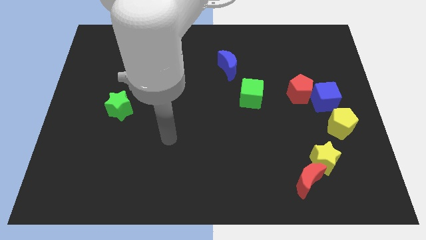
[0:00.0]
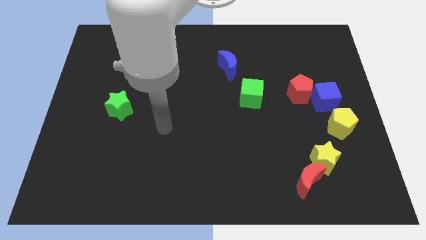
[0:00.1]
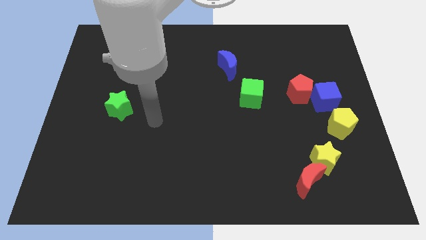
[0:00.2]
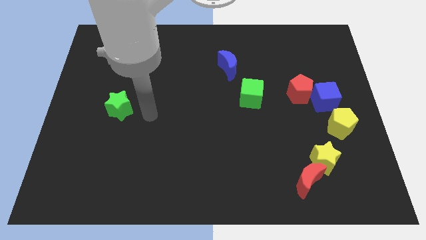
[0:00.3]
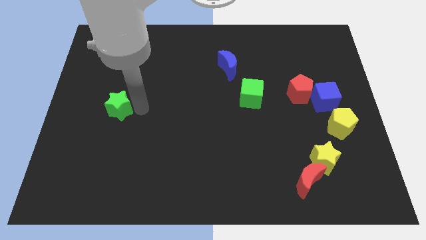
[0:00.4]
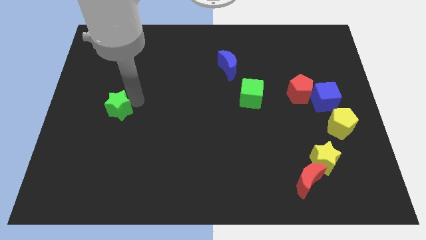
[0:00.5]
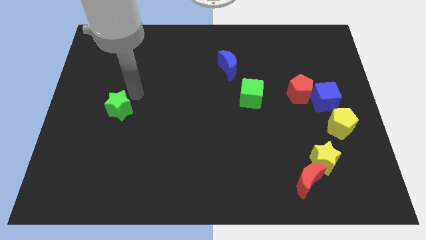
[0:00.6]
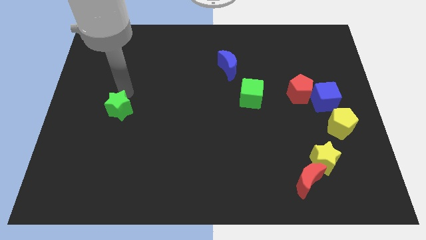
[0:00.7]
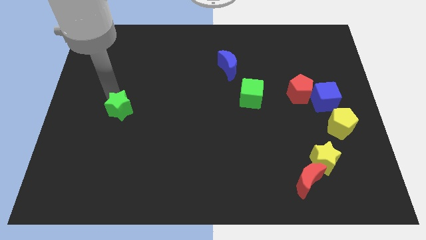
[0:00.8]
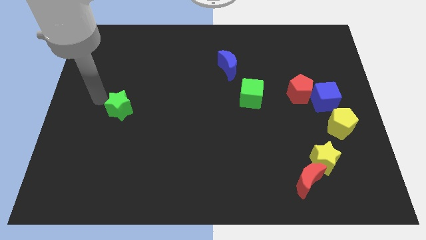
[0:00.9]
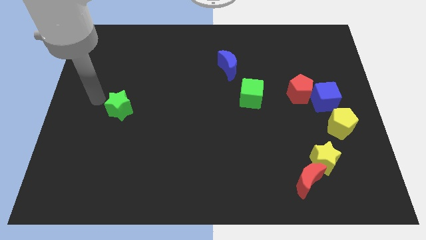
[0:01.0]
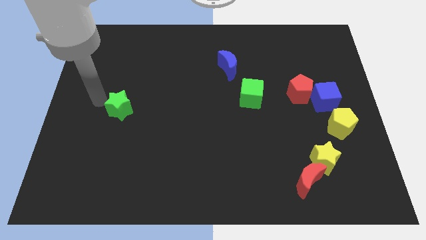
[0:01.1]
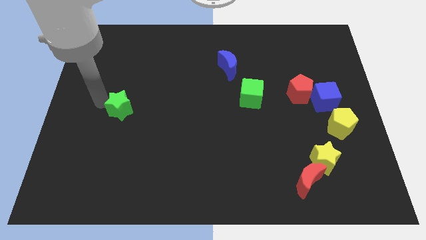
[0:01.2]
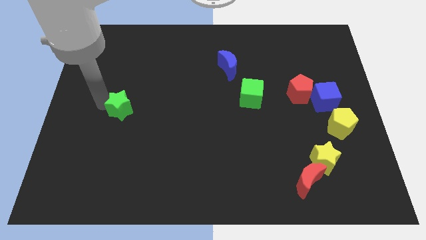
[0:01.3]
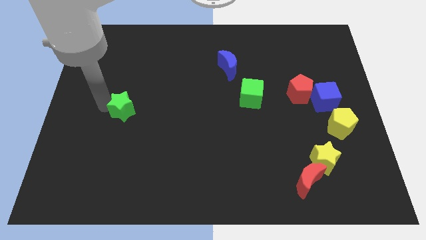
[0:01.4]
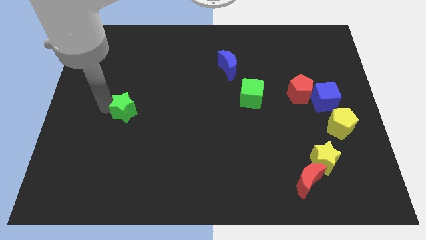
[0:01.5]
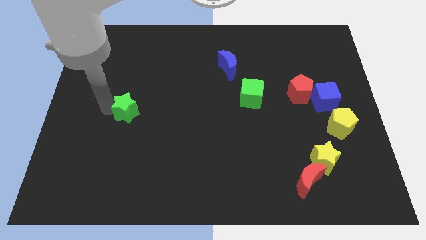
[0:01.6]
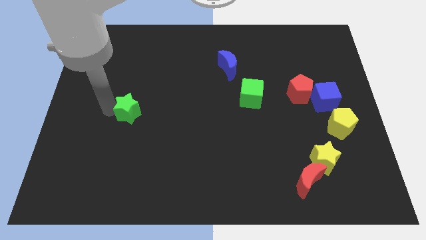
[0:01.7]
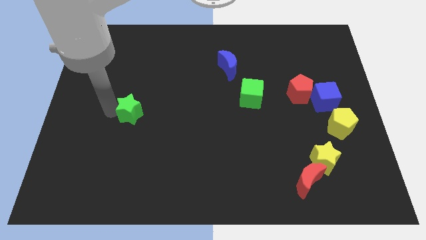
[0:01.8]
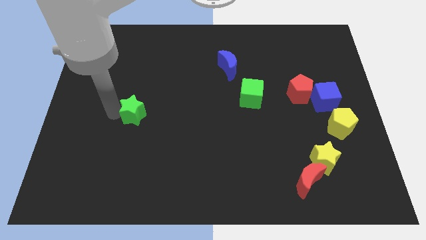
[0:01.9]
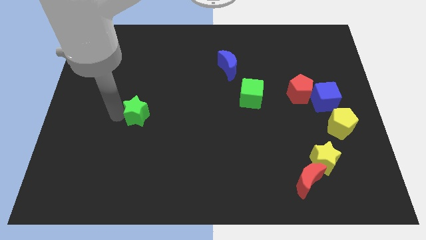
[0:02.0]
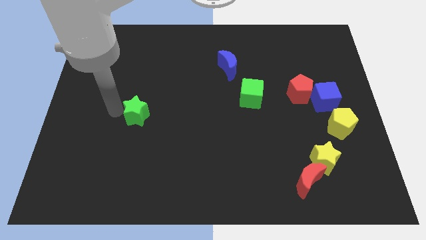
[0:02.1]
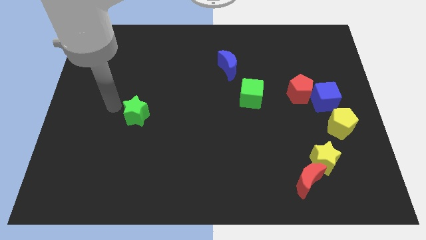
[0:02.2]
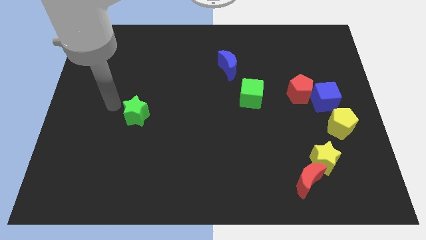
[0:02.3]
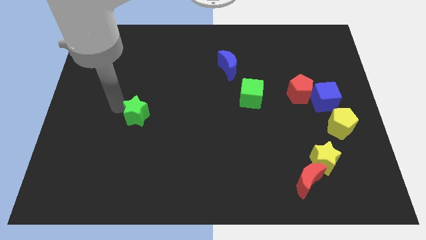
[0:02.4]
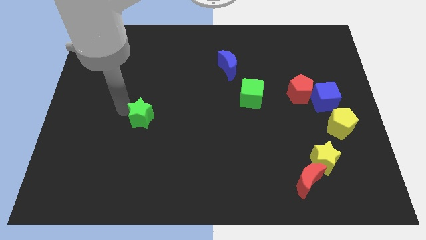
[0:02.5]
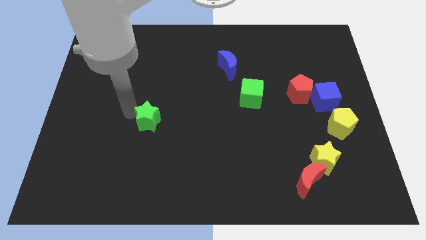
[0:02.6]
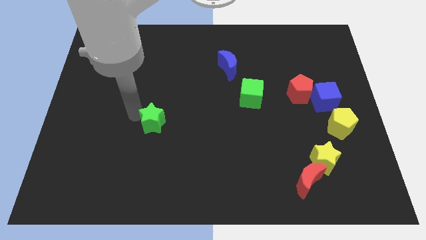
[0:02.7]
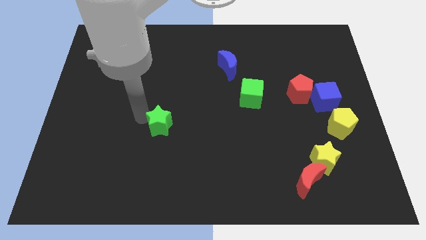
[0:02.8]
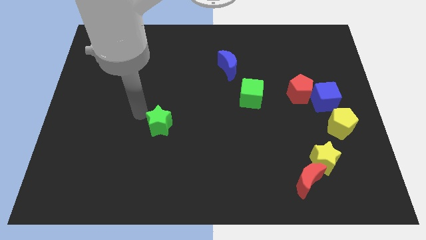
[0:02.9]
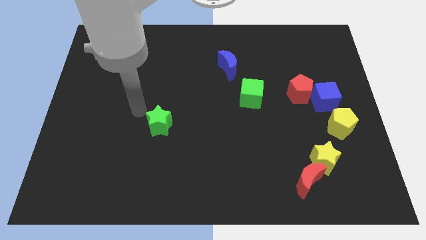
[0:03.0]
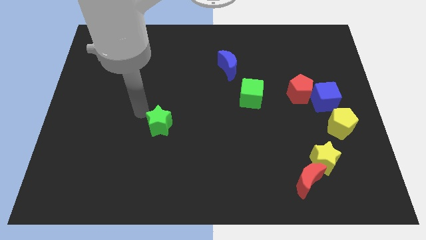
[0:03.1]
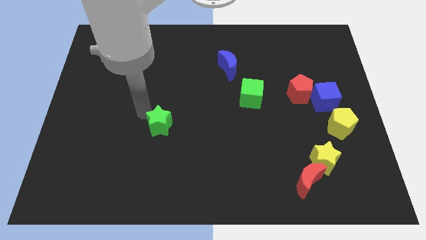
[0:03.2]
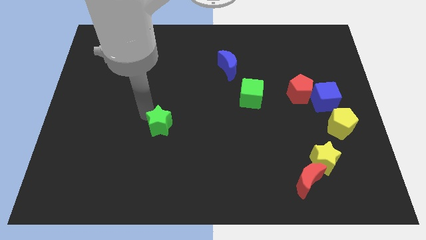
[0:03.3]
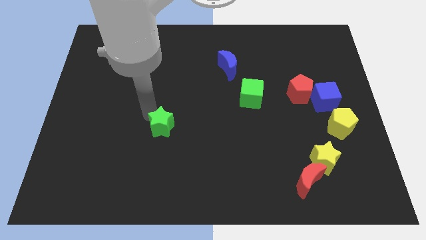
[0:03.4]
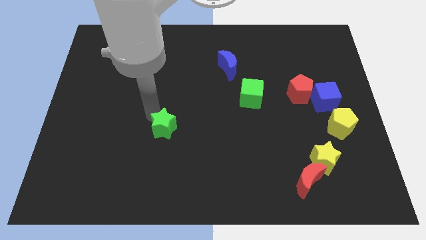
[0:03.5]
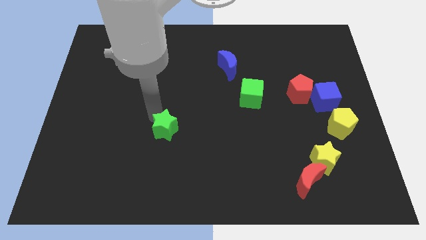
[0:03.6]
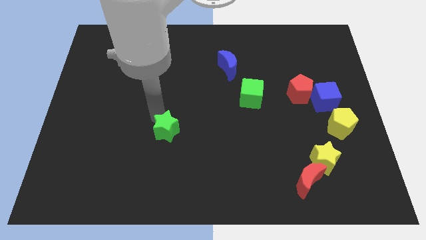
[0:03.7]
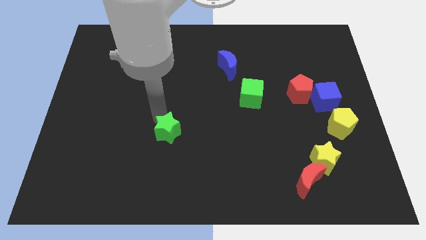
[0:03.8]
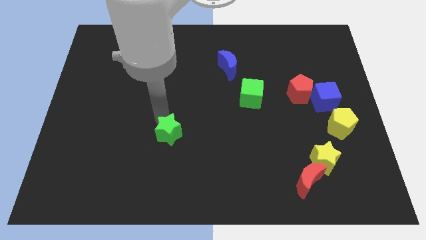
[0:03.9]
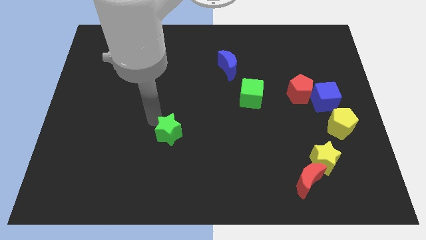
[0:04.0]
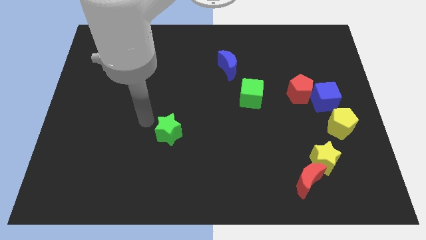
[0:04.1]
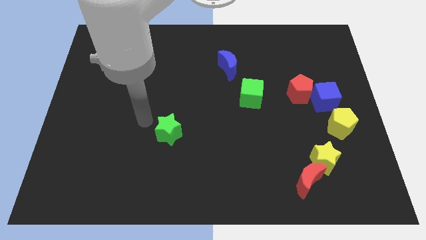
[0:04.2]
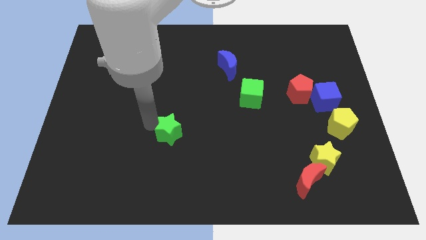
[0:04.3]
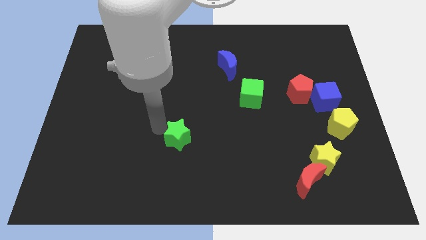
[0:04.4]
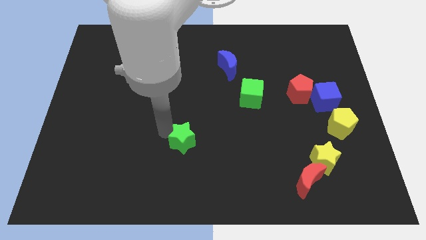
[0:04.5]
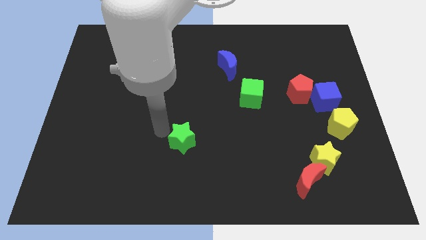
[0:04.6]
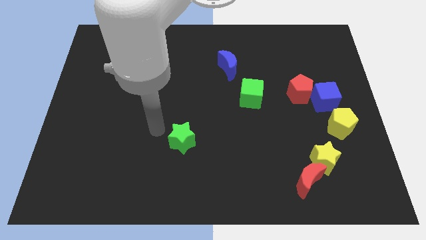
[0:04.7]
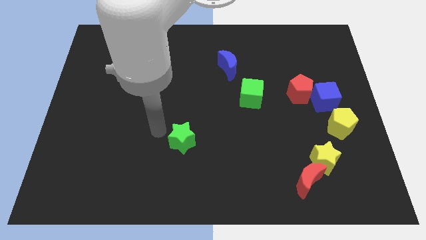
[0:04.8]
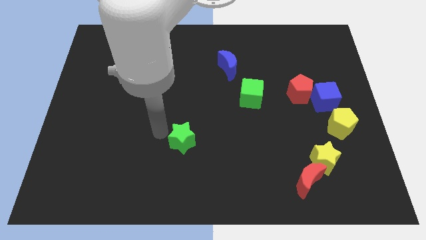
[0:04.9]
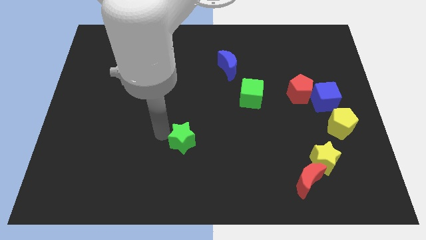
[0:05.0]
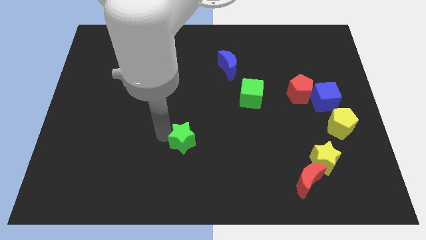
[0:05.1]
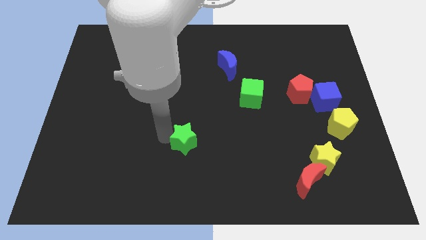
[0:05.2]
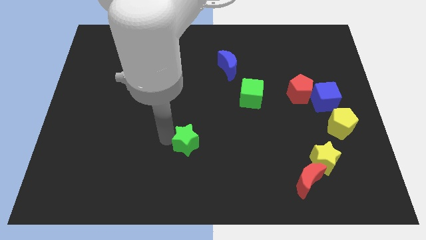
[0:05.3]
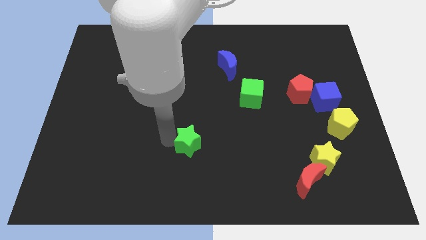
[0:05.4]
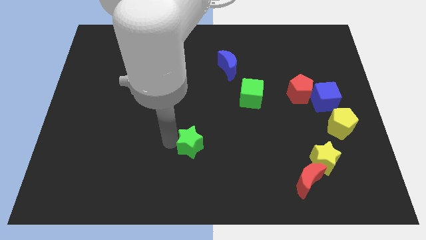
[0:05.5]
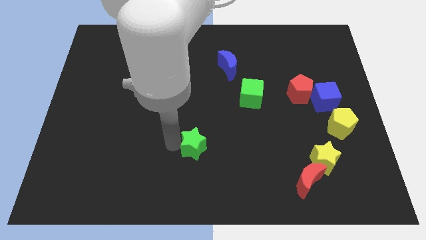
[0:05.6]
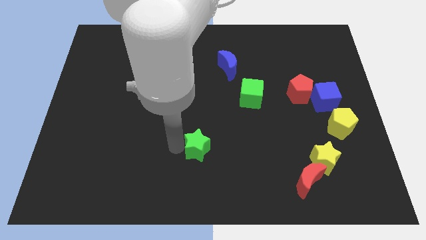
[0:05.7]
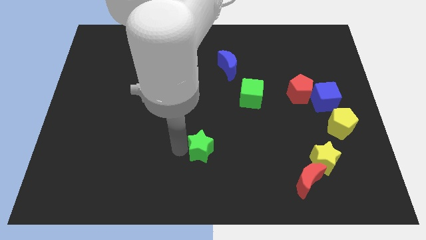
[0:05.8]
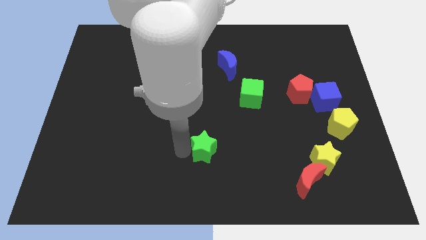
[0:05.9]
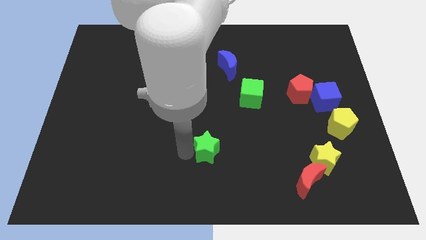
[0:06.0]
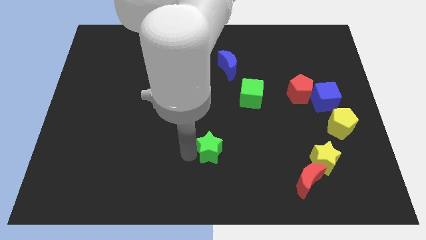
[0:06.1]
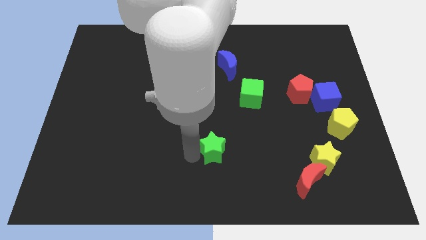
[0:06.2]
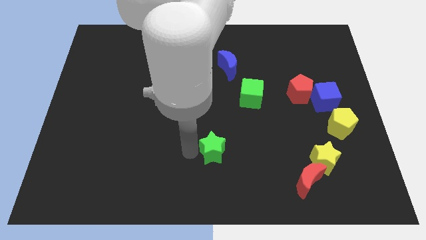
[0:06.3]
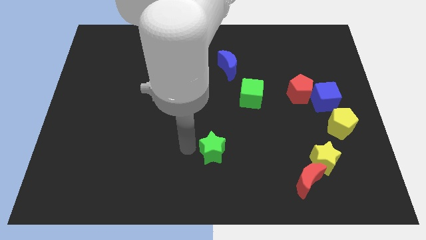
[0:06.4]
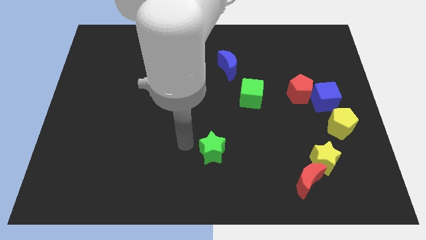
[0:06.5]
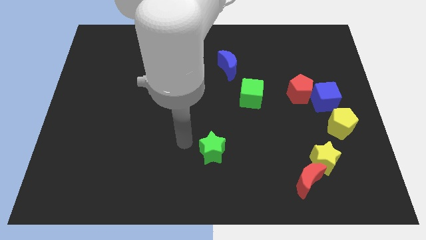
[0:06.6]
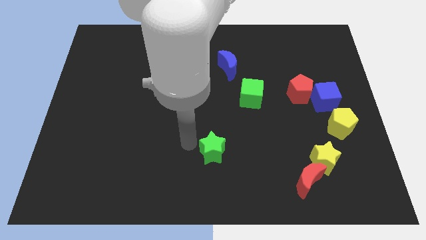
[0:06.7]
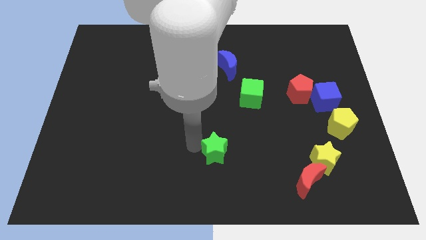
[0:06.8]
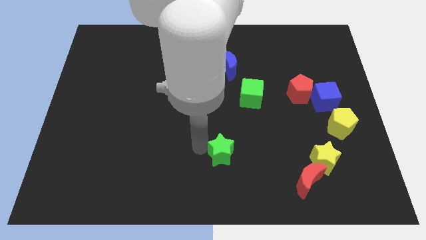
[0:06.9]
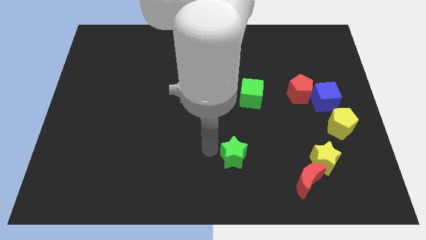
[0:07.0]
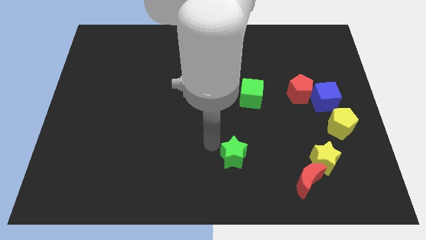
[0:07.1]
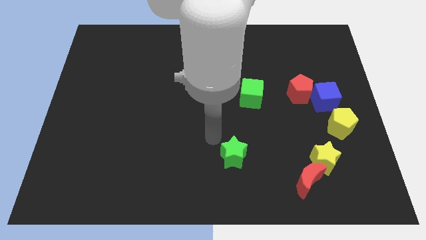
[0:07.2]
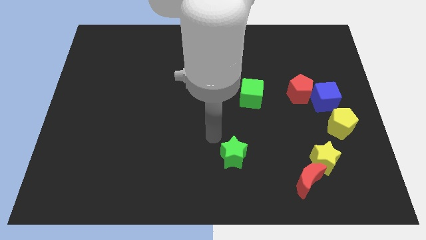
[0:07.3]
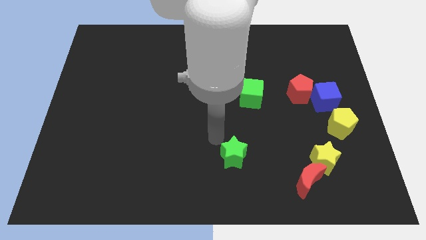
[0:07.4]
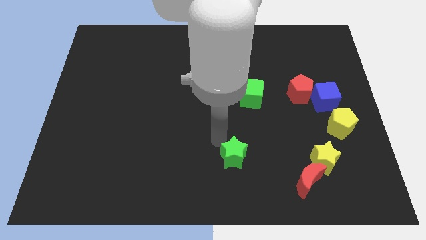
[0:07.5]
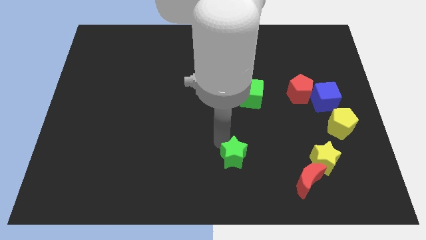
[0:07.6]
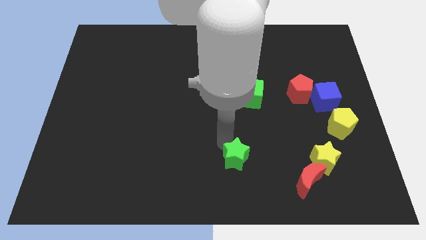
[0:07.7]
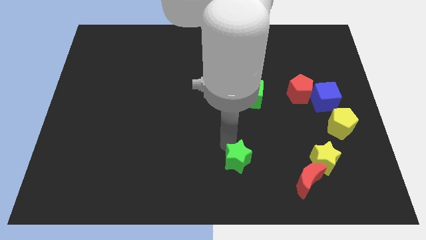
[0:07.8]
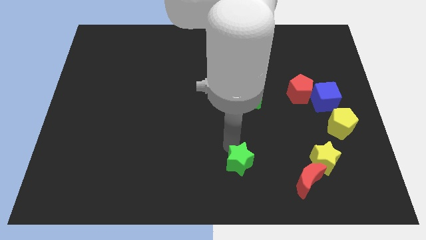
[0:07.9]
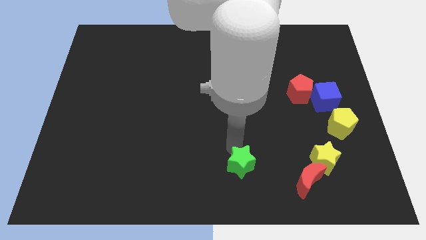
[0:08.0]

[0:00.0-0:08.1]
push the green star to the left of the red moon
